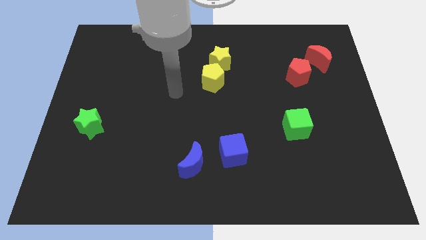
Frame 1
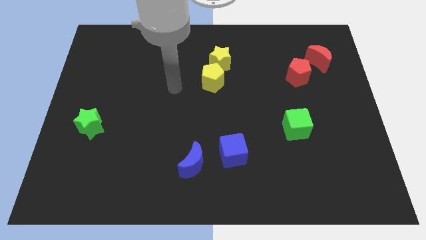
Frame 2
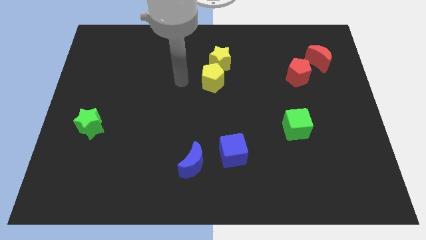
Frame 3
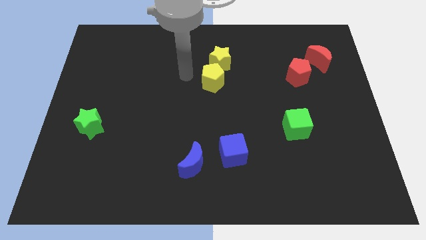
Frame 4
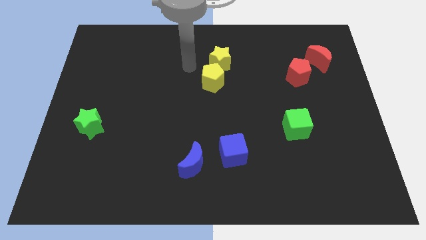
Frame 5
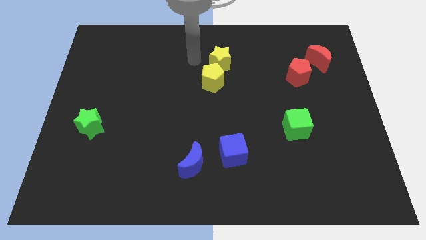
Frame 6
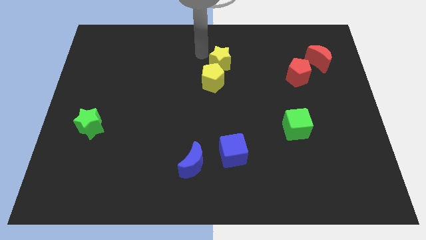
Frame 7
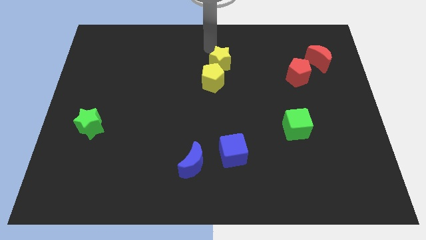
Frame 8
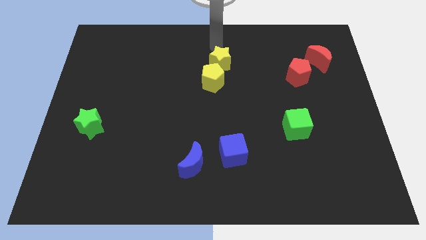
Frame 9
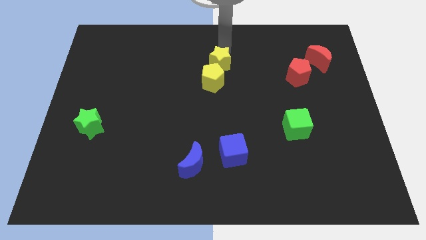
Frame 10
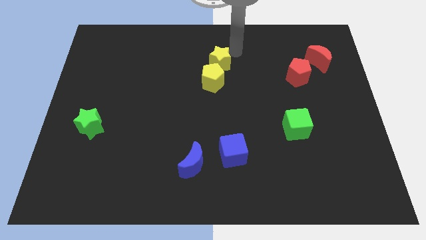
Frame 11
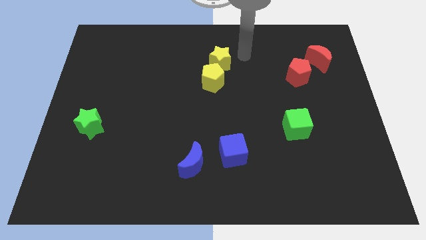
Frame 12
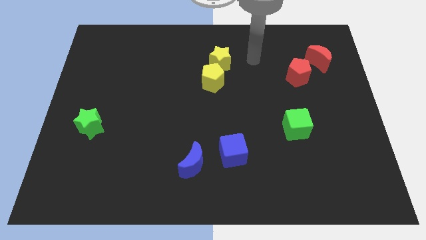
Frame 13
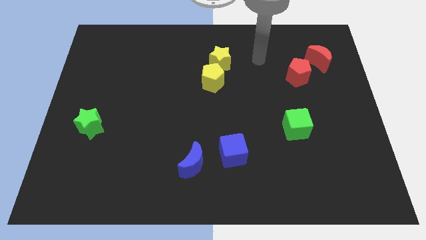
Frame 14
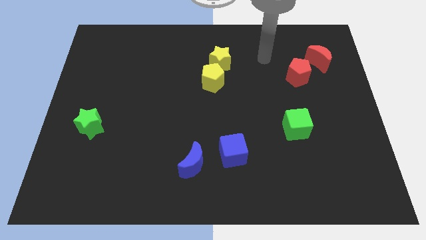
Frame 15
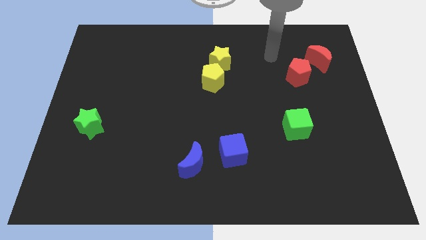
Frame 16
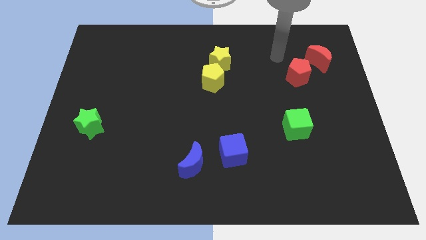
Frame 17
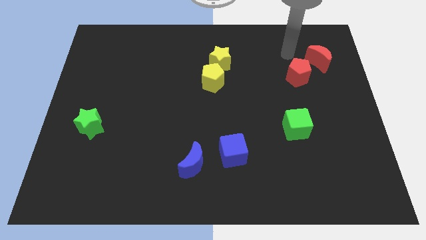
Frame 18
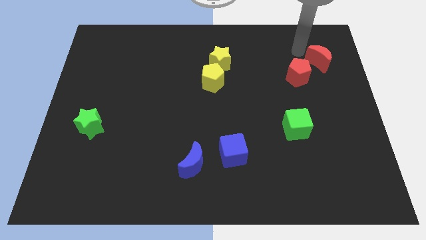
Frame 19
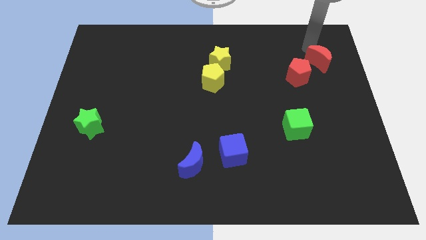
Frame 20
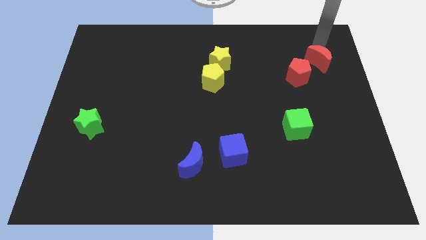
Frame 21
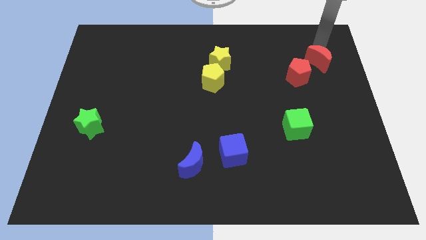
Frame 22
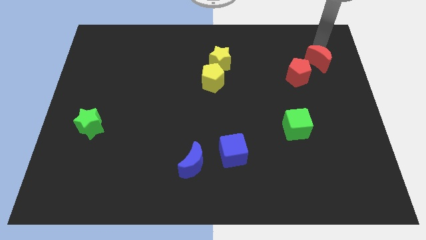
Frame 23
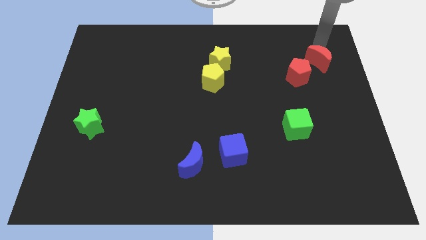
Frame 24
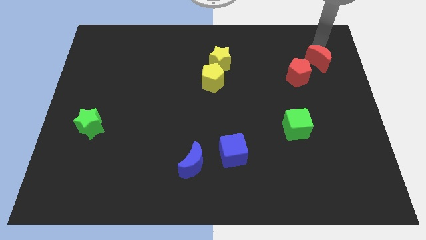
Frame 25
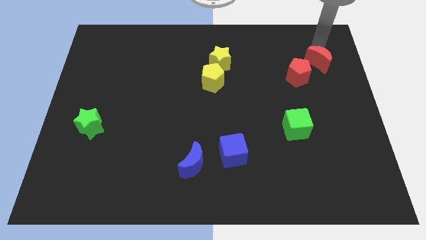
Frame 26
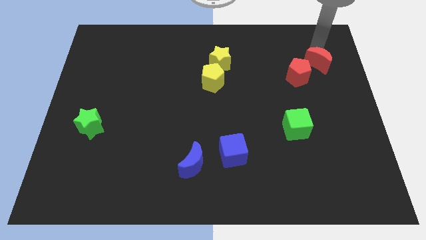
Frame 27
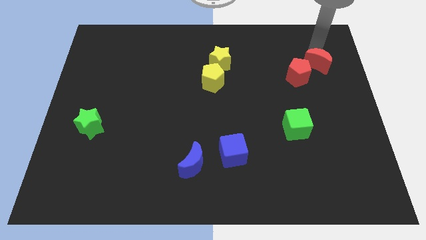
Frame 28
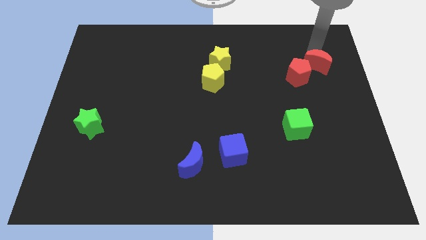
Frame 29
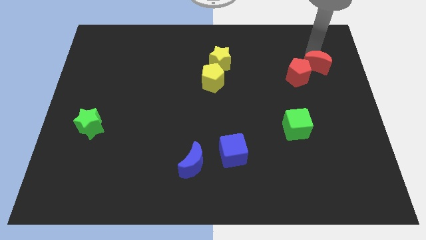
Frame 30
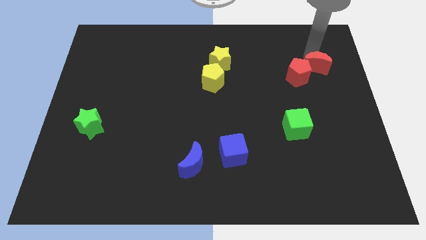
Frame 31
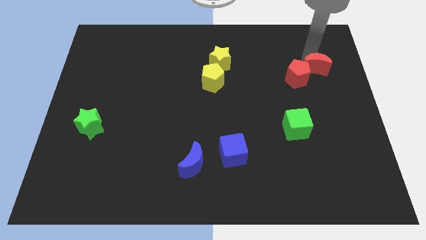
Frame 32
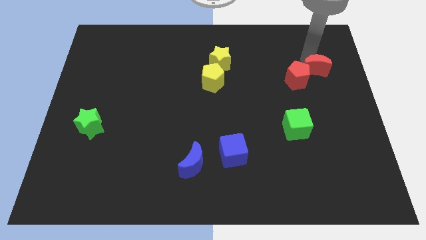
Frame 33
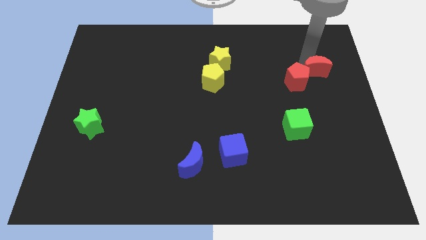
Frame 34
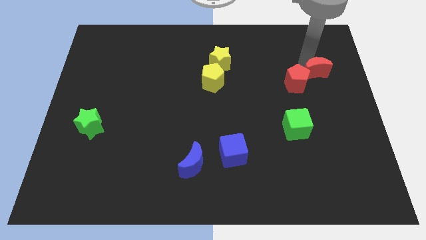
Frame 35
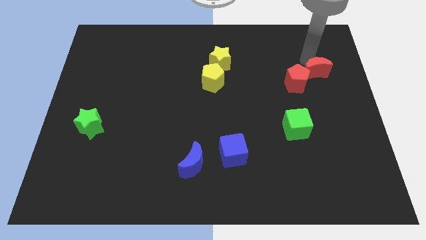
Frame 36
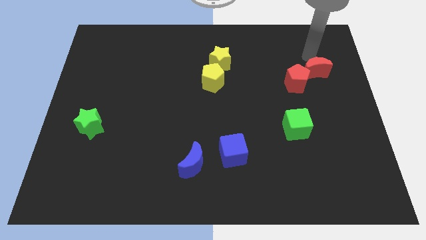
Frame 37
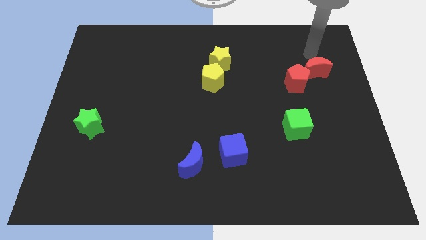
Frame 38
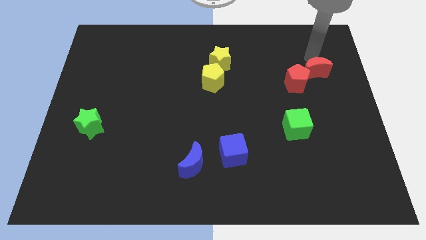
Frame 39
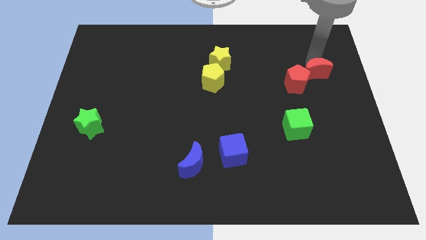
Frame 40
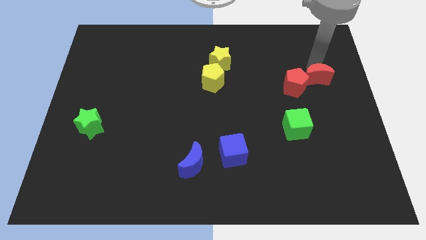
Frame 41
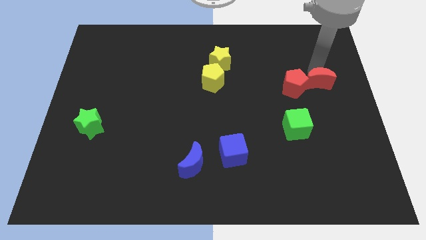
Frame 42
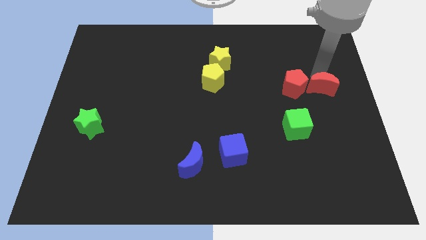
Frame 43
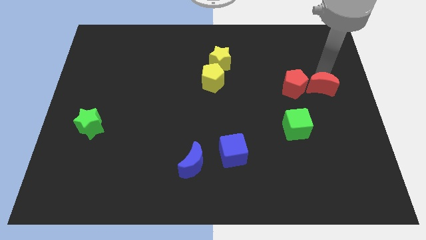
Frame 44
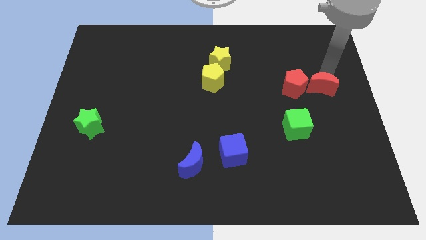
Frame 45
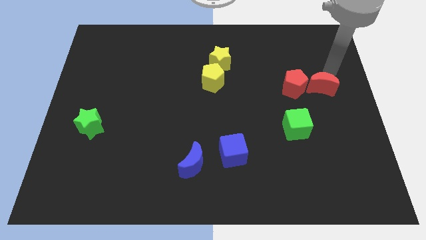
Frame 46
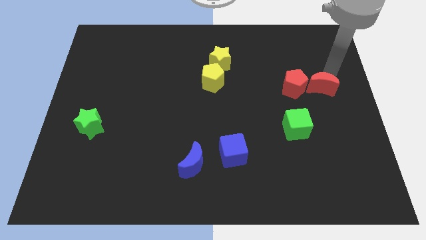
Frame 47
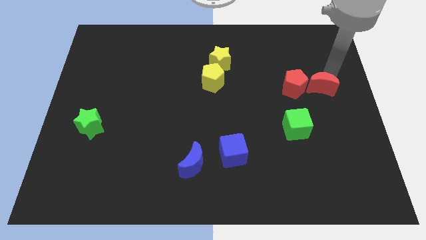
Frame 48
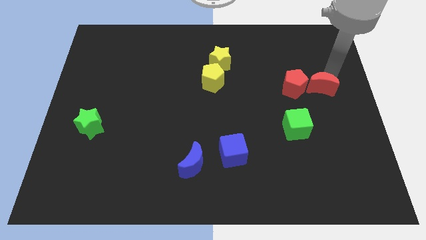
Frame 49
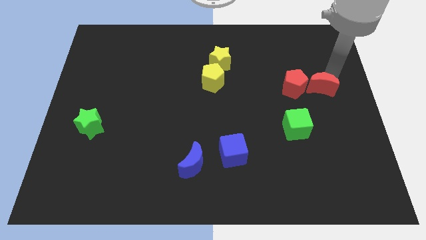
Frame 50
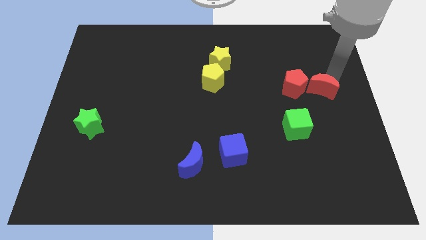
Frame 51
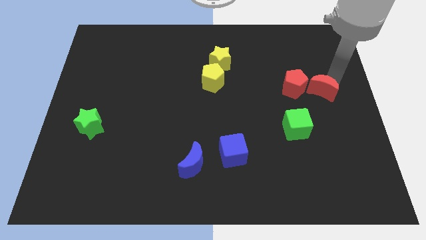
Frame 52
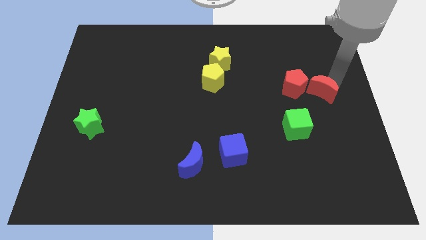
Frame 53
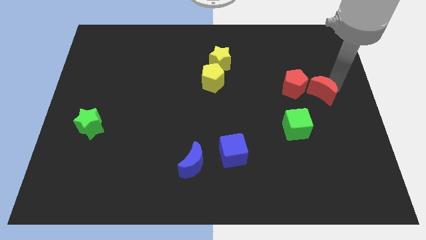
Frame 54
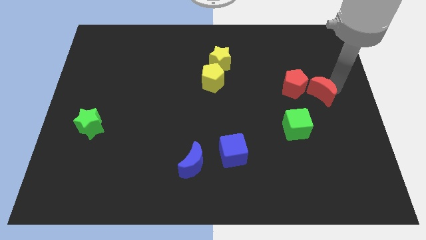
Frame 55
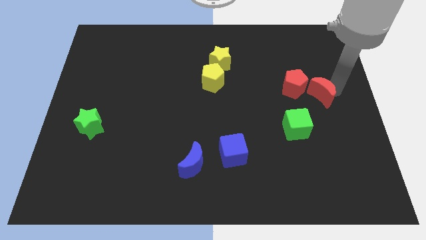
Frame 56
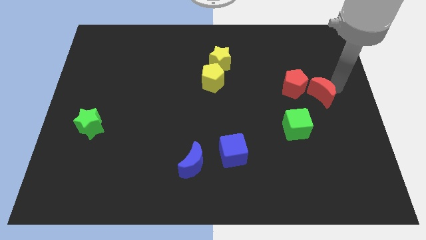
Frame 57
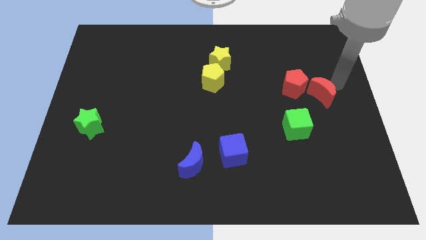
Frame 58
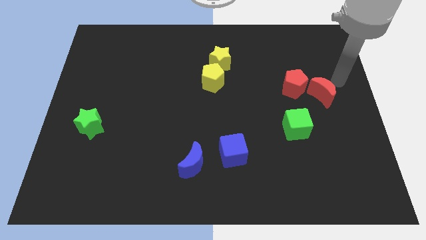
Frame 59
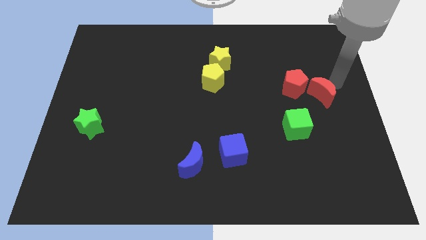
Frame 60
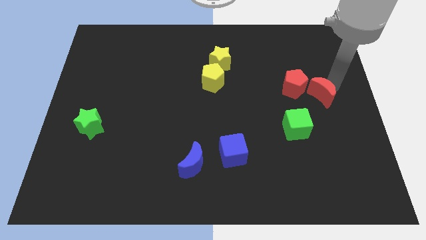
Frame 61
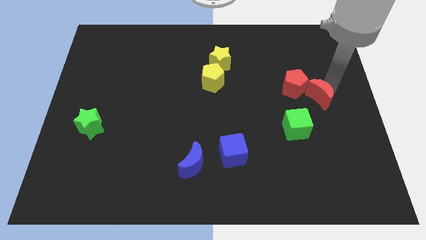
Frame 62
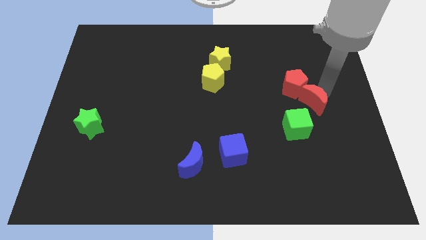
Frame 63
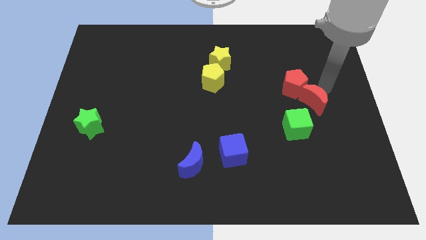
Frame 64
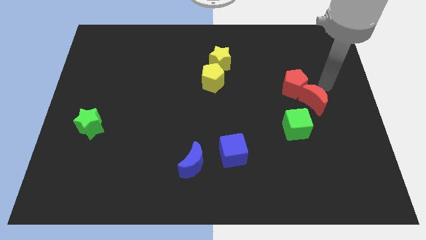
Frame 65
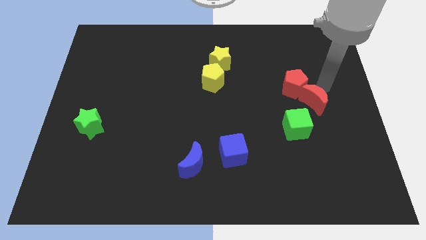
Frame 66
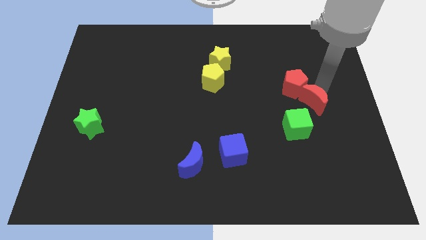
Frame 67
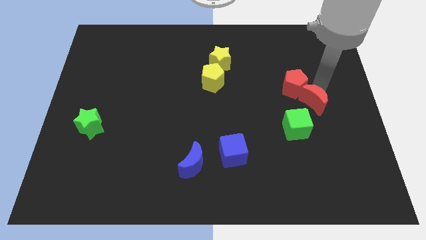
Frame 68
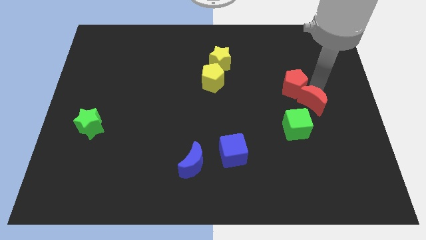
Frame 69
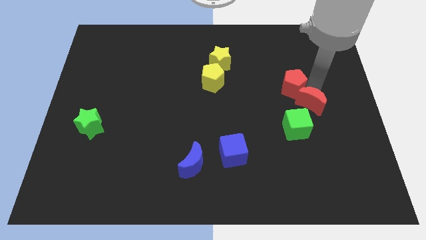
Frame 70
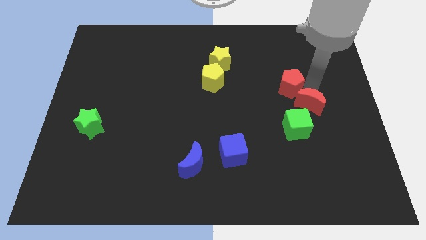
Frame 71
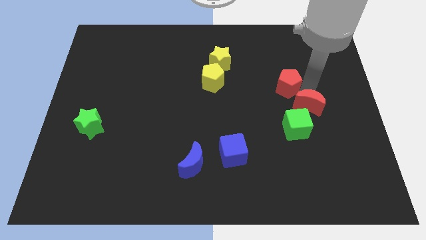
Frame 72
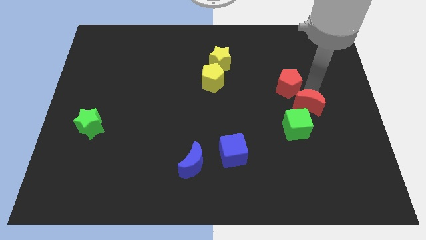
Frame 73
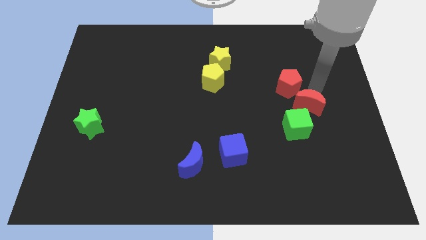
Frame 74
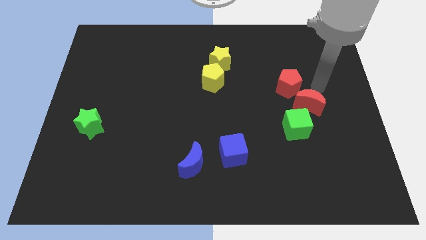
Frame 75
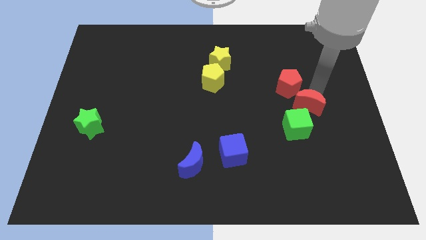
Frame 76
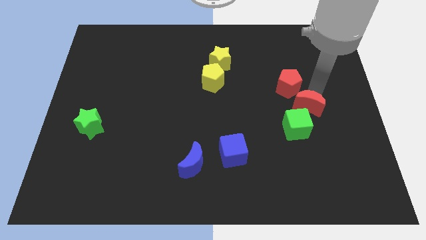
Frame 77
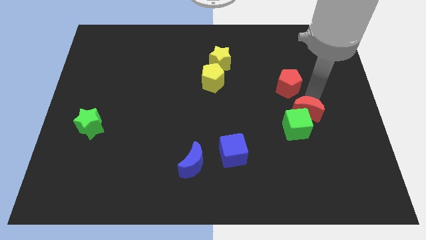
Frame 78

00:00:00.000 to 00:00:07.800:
move the red moon towards the green cube

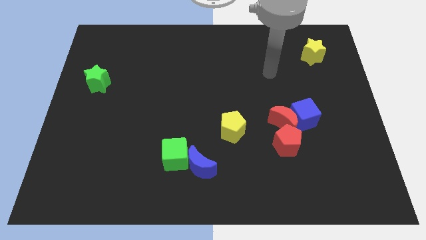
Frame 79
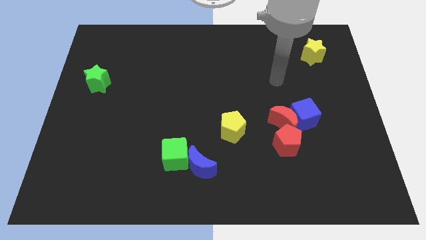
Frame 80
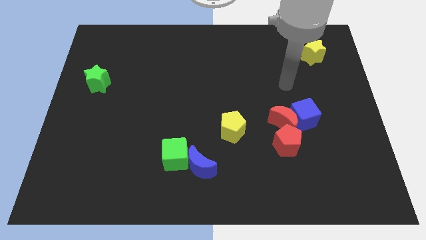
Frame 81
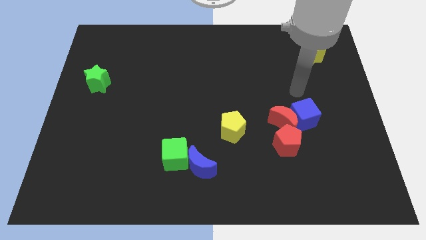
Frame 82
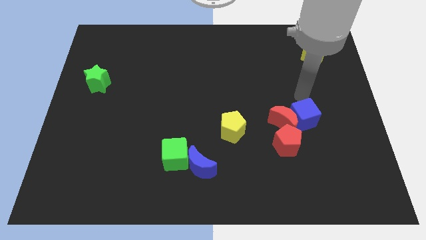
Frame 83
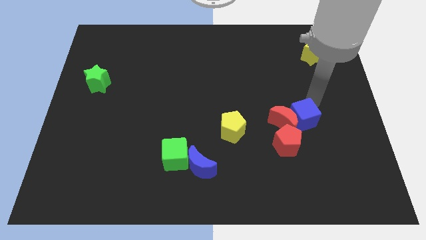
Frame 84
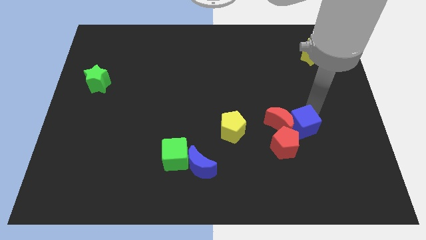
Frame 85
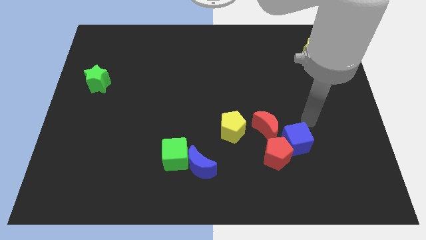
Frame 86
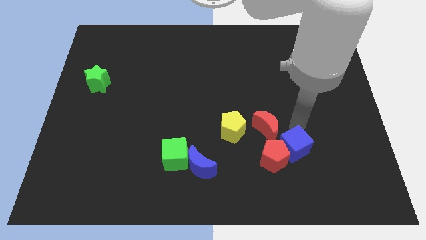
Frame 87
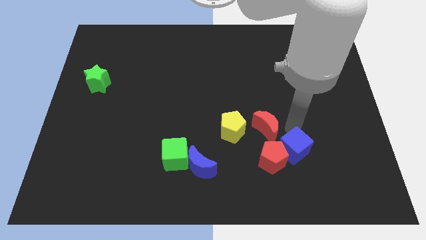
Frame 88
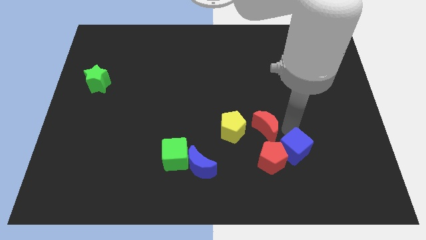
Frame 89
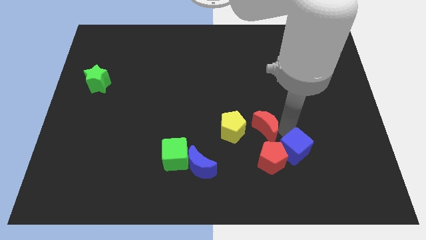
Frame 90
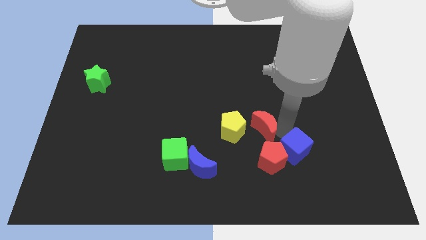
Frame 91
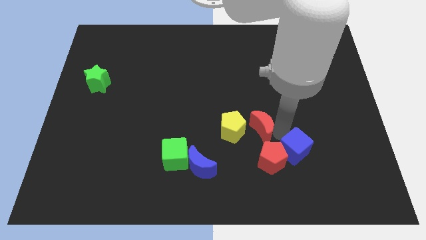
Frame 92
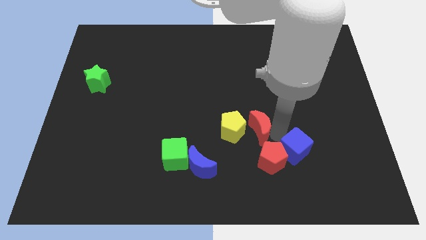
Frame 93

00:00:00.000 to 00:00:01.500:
put the red moon towards the yellow pentagon
